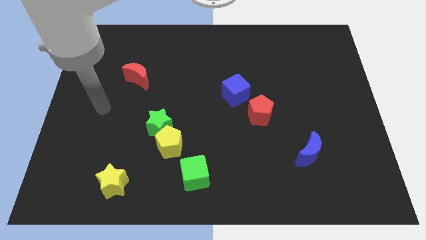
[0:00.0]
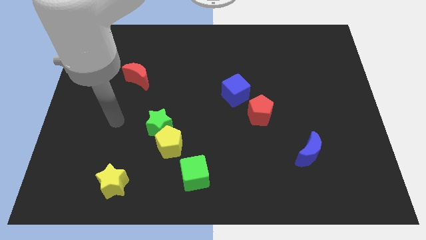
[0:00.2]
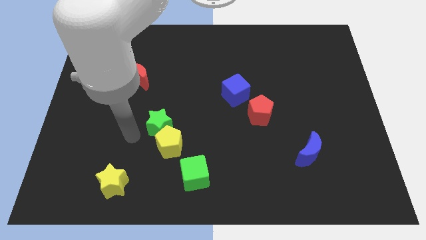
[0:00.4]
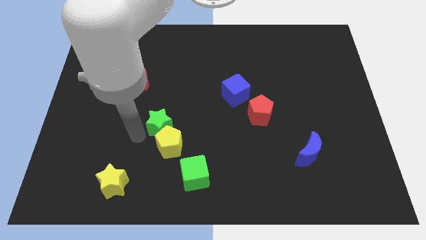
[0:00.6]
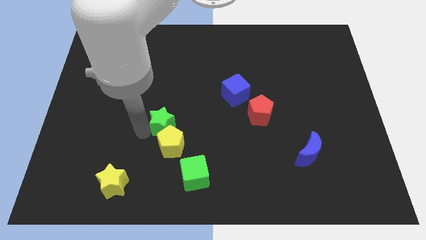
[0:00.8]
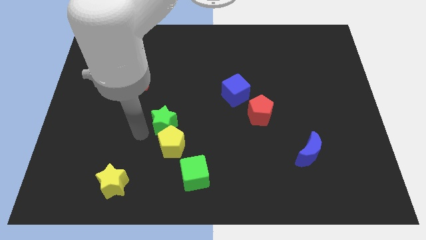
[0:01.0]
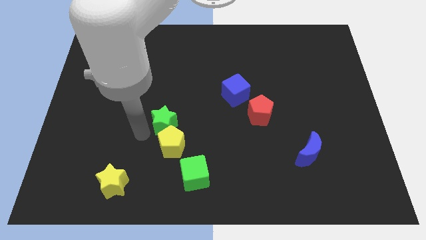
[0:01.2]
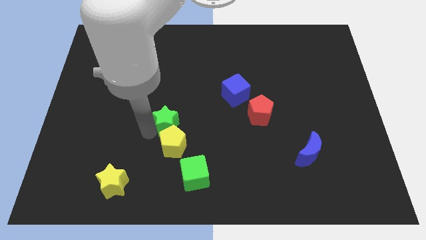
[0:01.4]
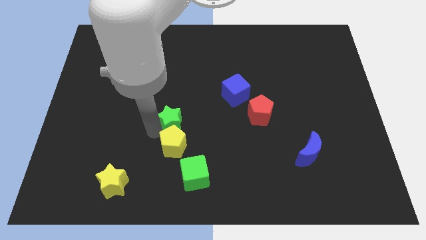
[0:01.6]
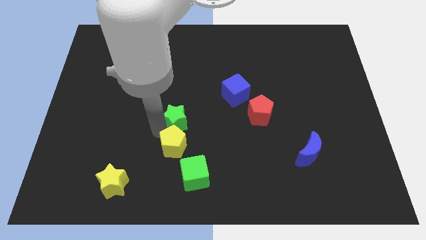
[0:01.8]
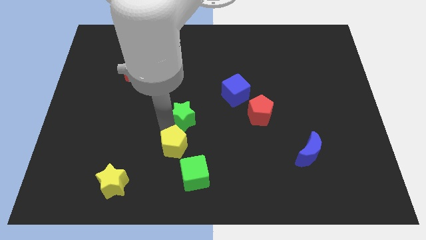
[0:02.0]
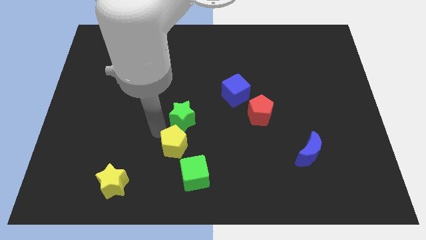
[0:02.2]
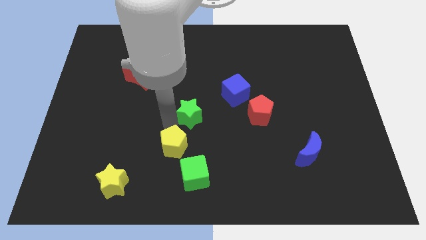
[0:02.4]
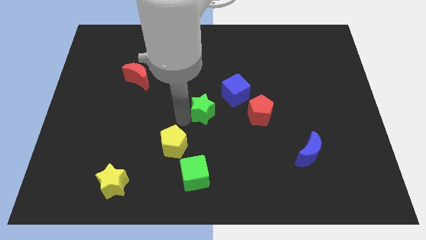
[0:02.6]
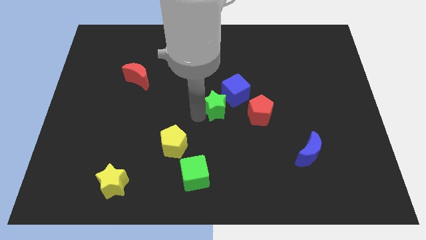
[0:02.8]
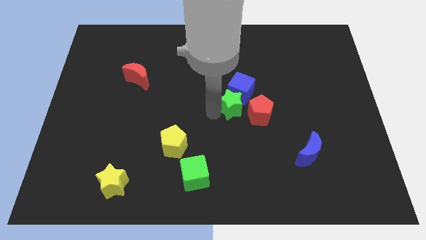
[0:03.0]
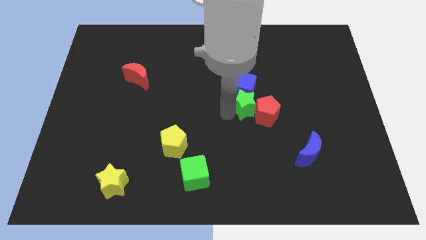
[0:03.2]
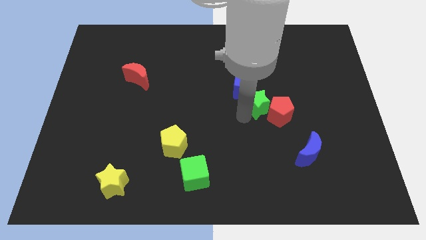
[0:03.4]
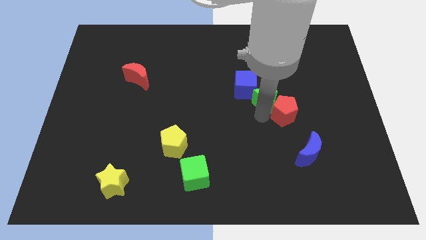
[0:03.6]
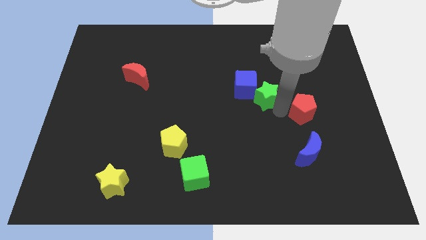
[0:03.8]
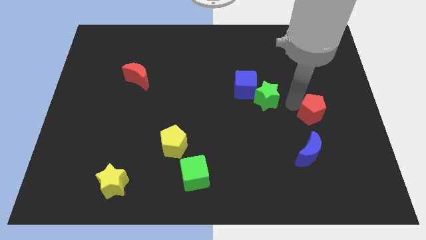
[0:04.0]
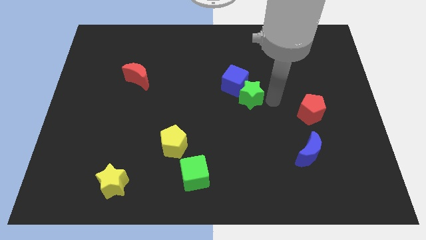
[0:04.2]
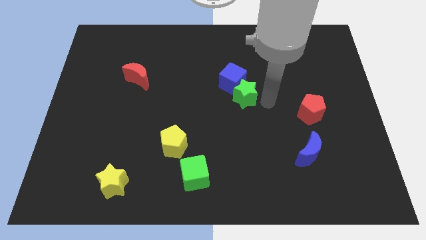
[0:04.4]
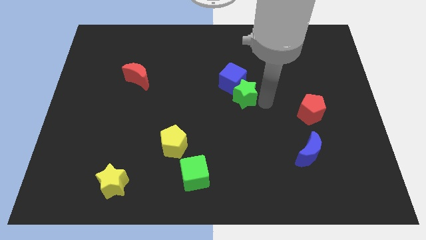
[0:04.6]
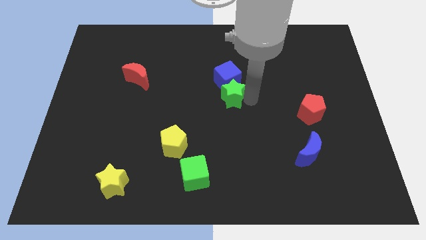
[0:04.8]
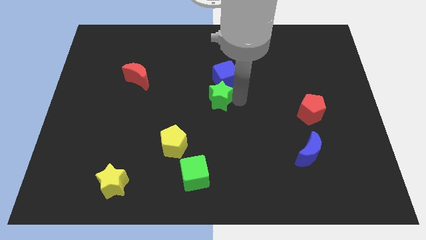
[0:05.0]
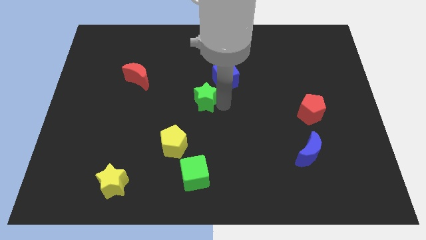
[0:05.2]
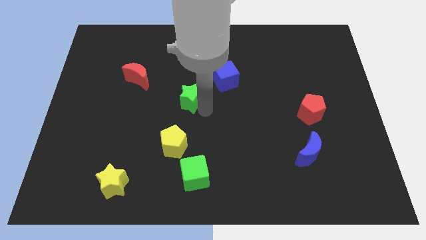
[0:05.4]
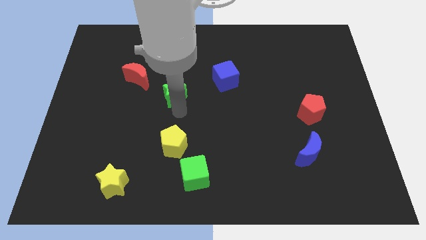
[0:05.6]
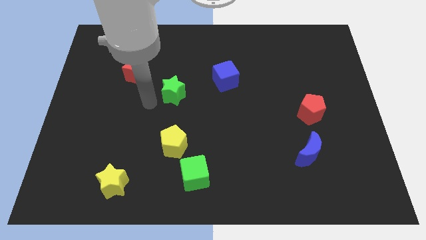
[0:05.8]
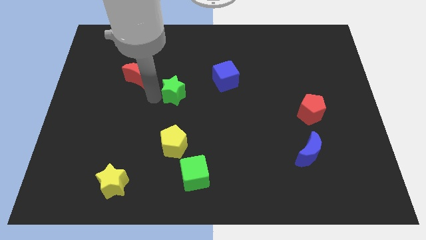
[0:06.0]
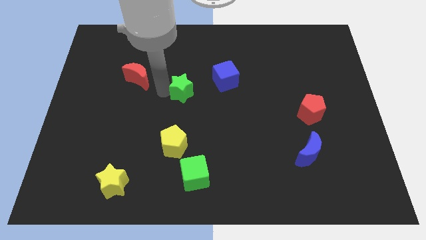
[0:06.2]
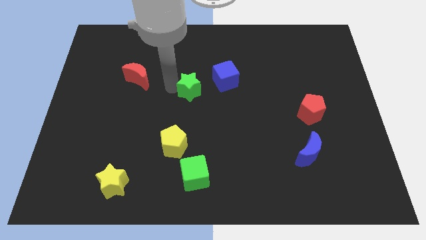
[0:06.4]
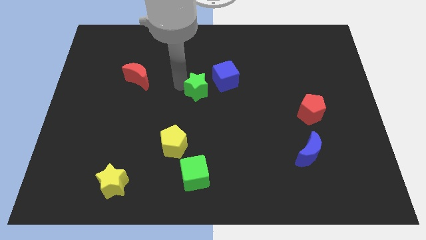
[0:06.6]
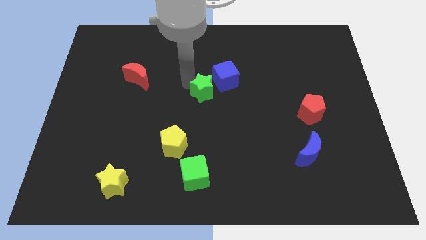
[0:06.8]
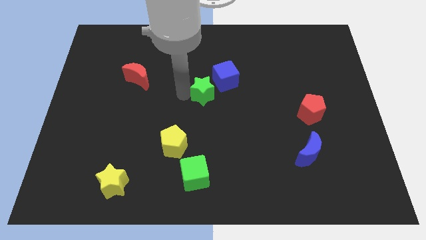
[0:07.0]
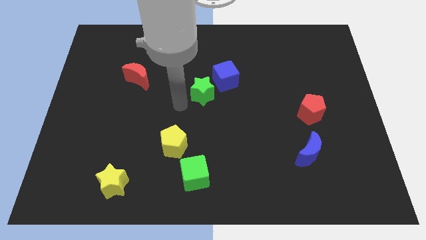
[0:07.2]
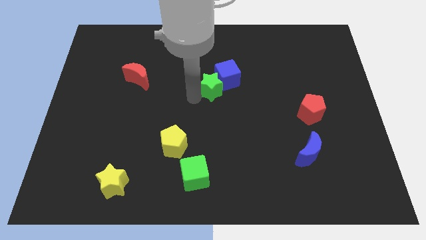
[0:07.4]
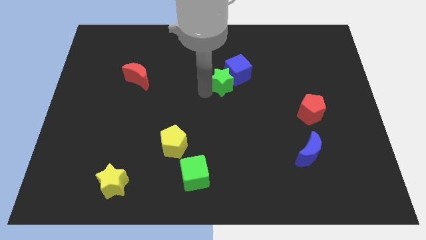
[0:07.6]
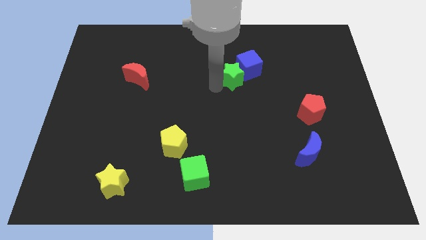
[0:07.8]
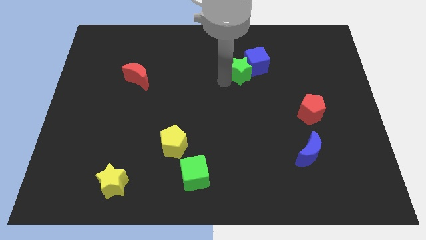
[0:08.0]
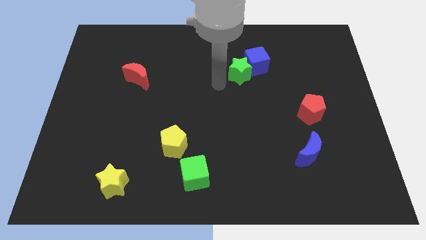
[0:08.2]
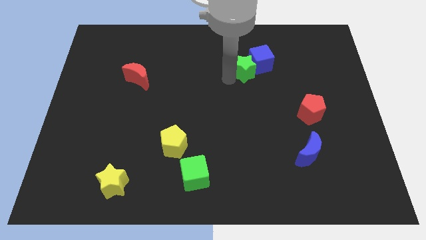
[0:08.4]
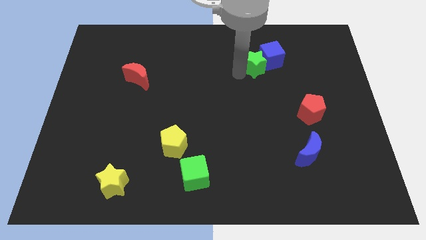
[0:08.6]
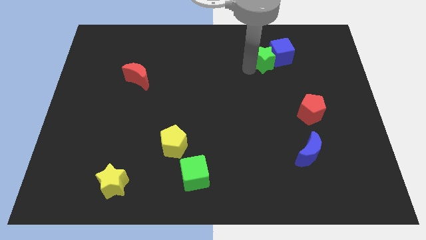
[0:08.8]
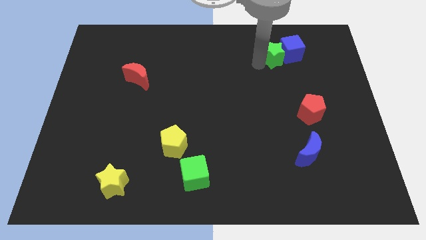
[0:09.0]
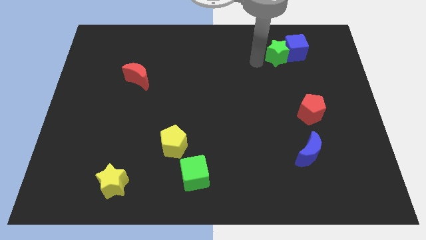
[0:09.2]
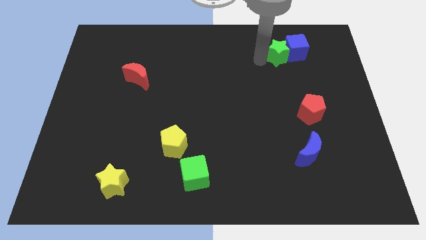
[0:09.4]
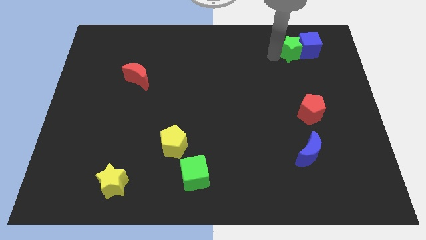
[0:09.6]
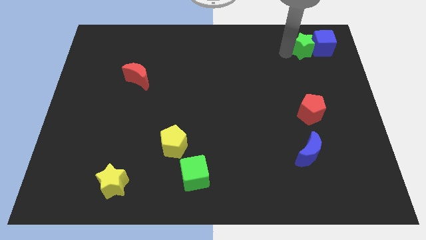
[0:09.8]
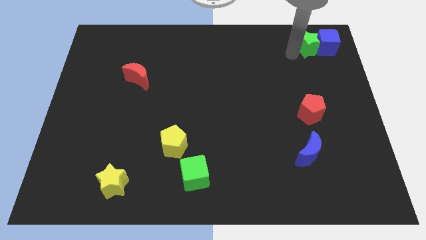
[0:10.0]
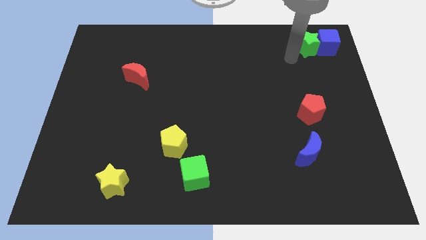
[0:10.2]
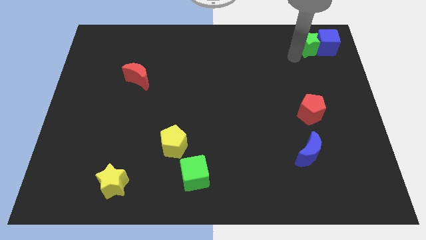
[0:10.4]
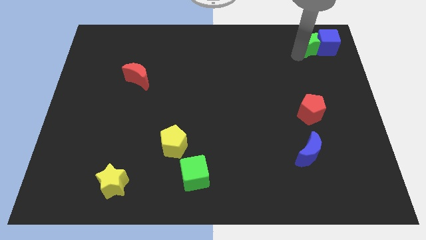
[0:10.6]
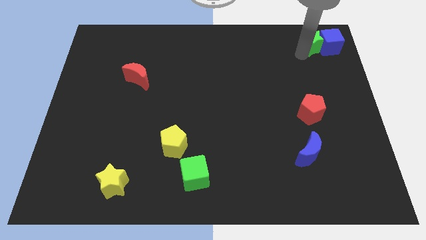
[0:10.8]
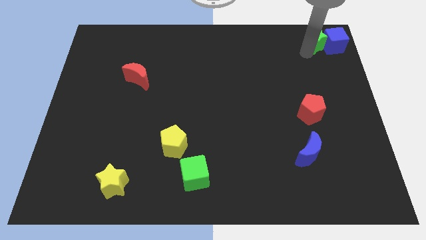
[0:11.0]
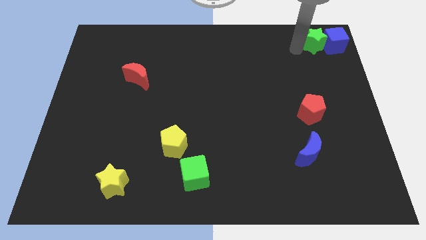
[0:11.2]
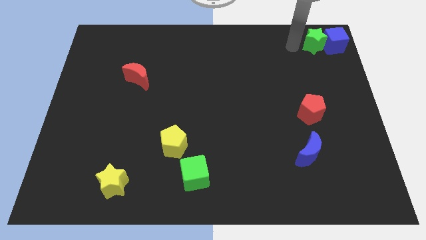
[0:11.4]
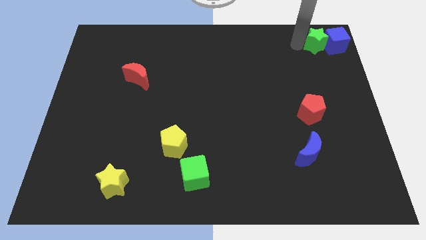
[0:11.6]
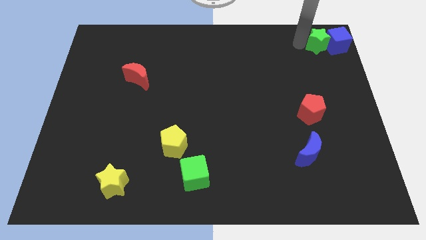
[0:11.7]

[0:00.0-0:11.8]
move the green star to the top right of the board

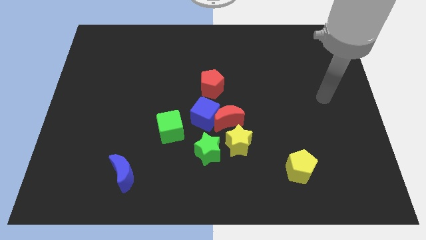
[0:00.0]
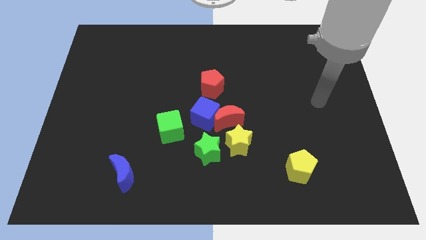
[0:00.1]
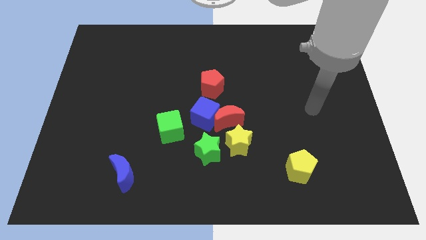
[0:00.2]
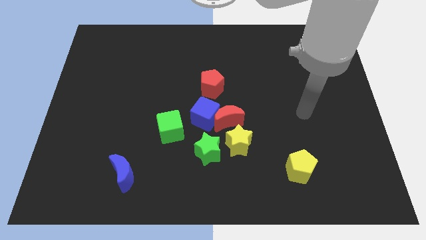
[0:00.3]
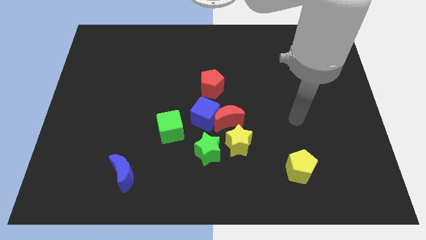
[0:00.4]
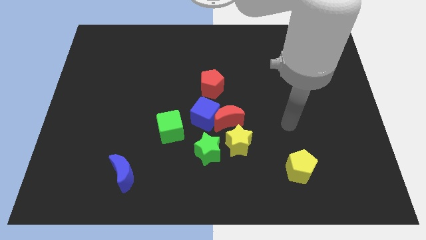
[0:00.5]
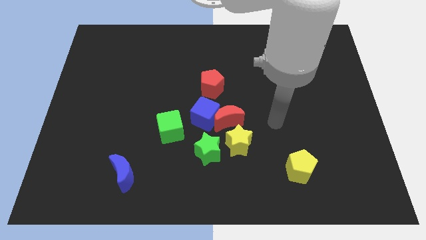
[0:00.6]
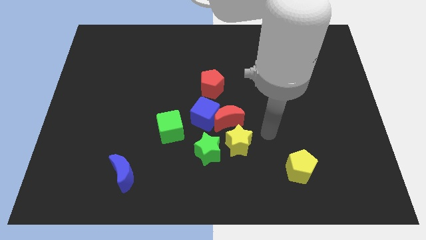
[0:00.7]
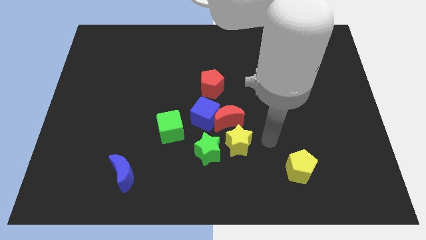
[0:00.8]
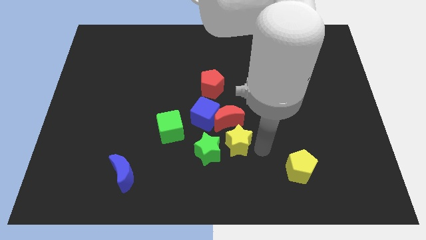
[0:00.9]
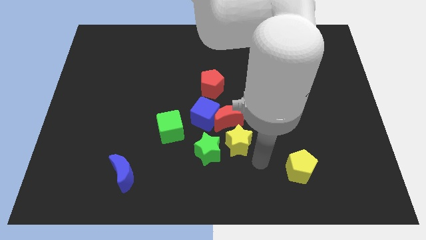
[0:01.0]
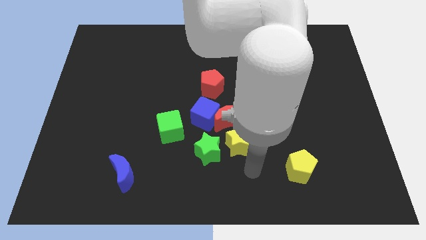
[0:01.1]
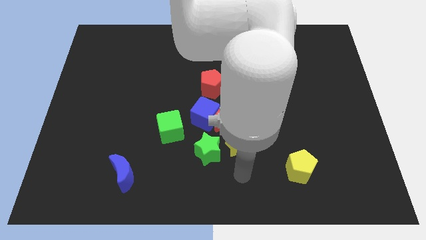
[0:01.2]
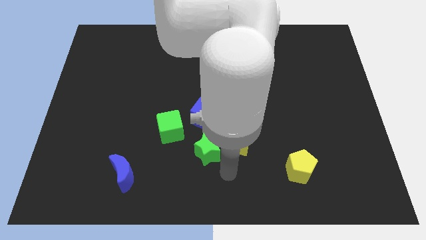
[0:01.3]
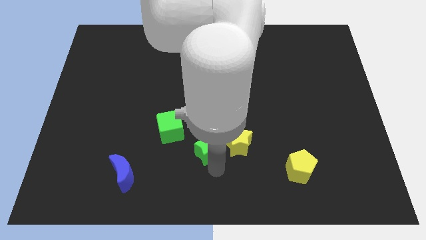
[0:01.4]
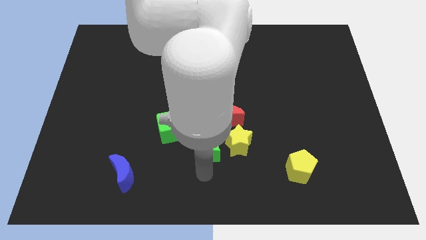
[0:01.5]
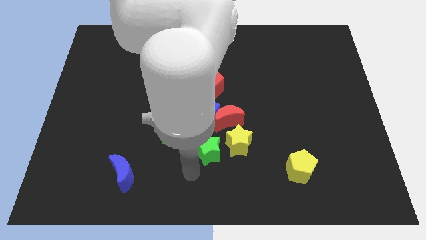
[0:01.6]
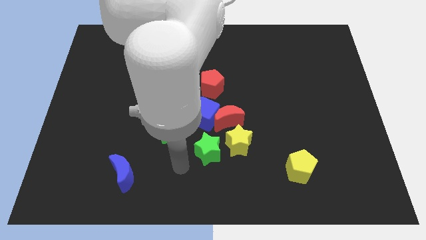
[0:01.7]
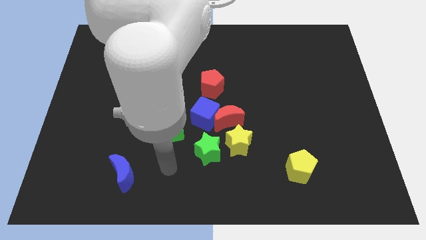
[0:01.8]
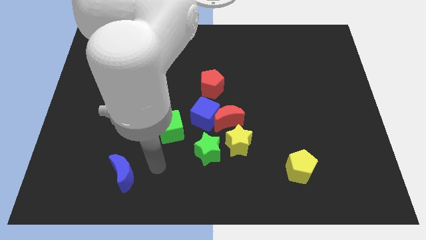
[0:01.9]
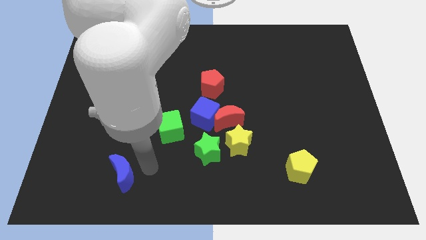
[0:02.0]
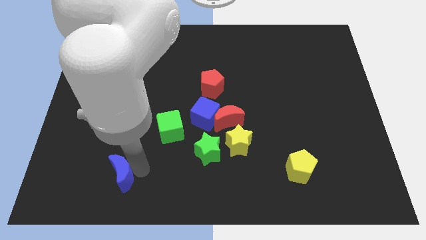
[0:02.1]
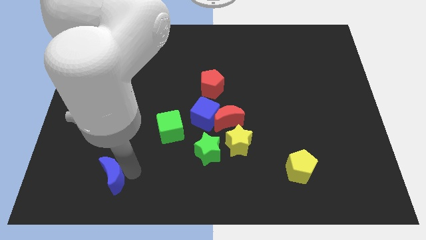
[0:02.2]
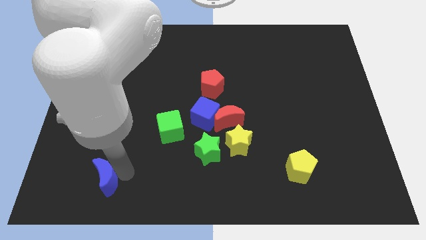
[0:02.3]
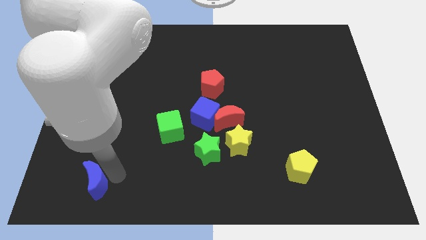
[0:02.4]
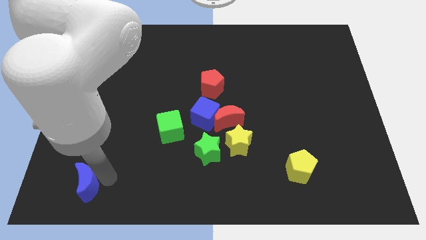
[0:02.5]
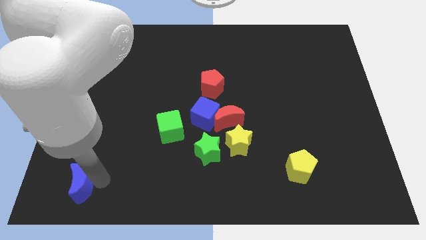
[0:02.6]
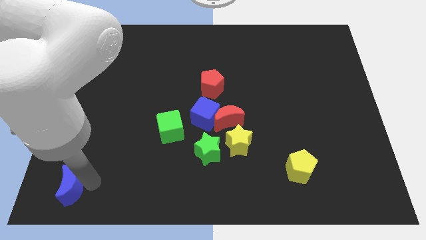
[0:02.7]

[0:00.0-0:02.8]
move the blue moon to the lower left corner
